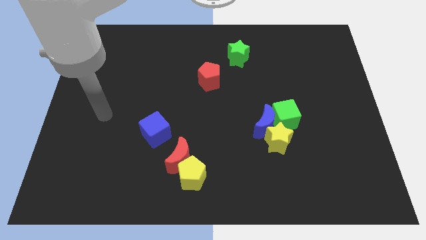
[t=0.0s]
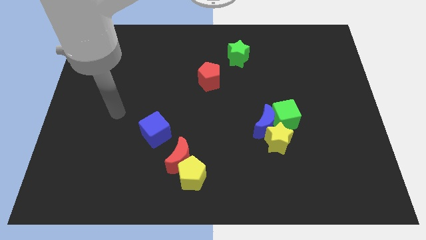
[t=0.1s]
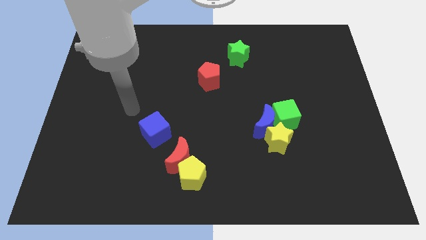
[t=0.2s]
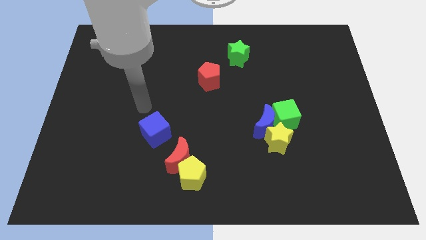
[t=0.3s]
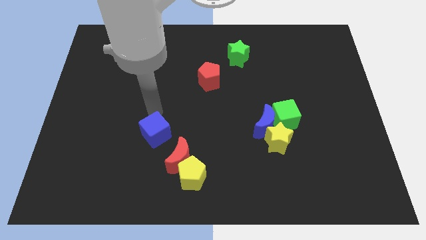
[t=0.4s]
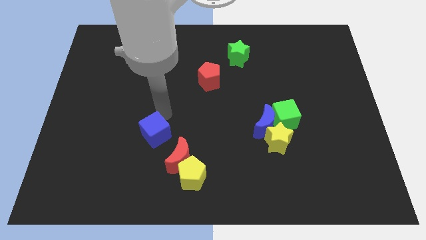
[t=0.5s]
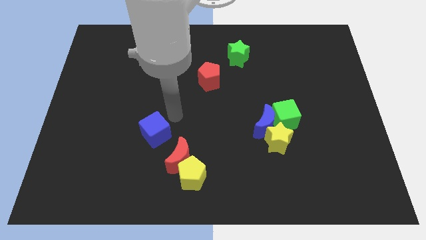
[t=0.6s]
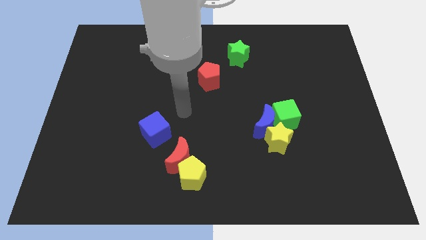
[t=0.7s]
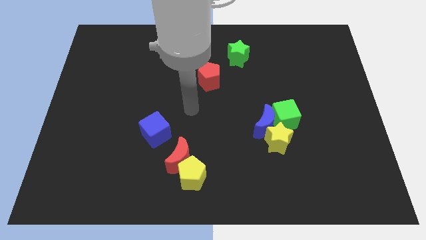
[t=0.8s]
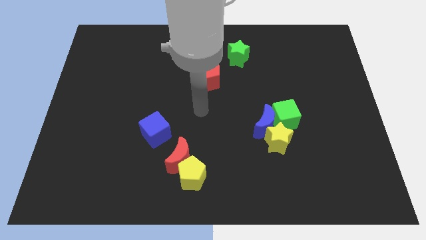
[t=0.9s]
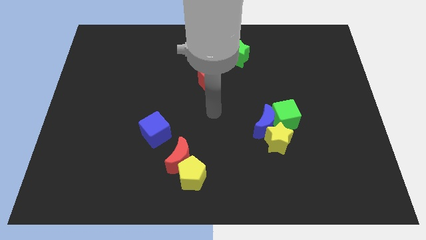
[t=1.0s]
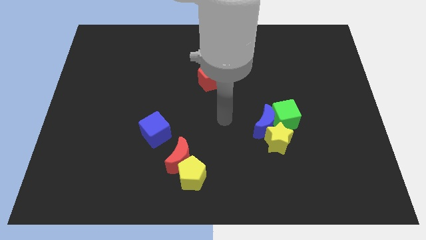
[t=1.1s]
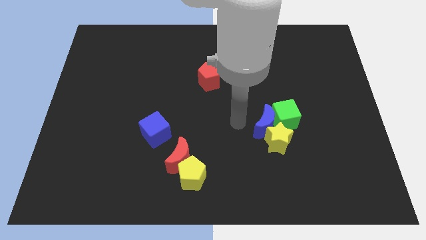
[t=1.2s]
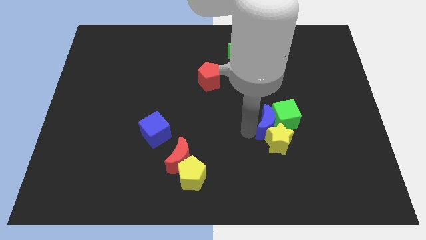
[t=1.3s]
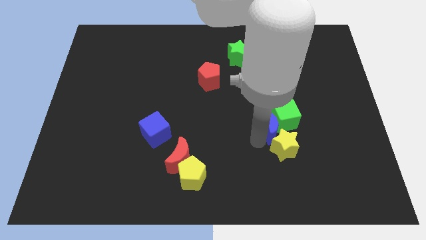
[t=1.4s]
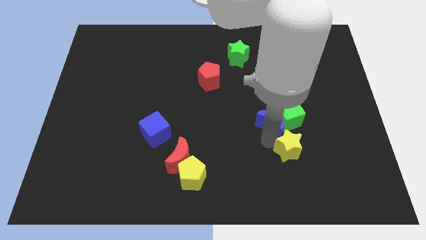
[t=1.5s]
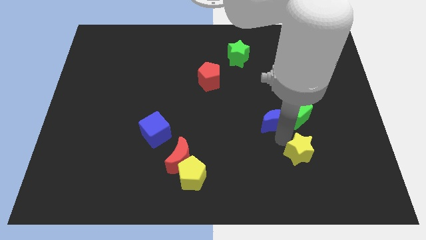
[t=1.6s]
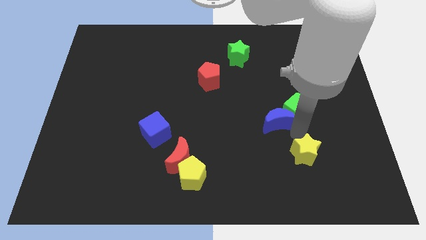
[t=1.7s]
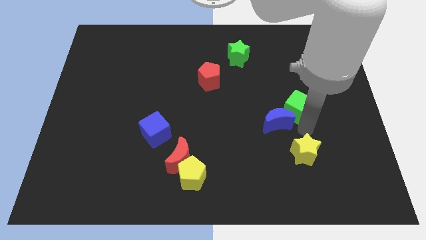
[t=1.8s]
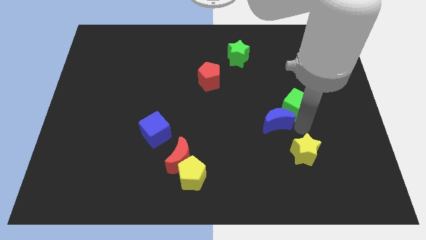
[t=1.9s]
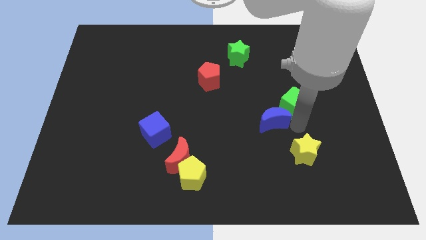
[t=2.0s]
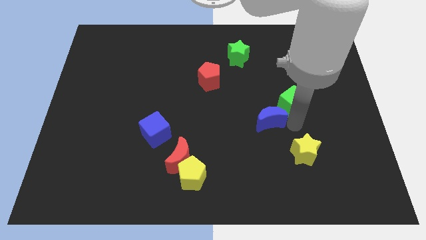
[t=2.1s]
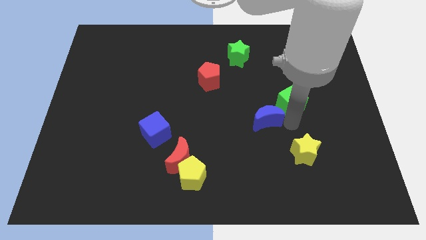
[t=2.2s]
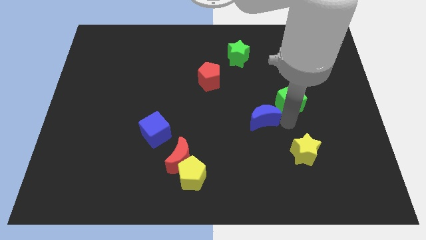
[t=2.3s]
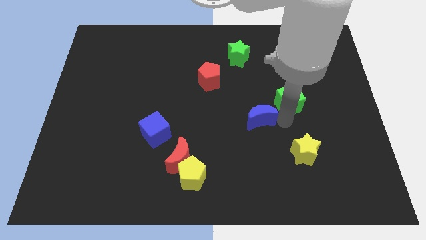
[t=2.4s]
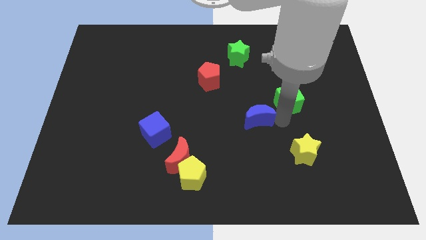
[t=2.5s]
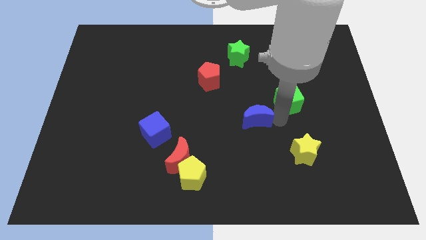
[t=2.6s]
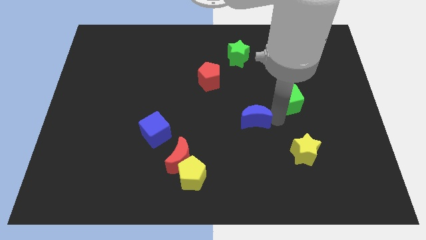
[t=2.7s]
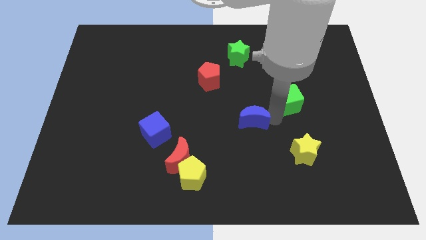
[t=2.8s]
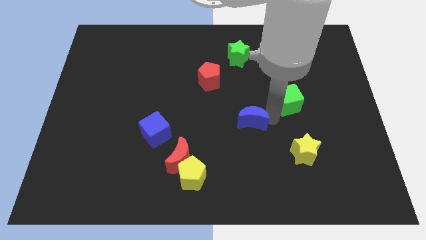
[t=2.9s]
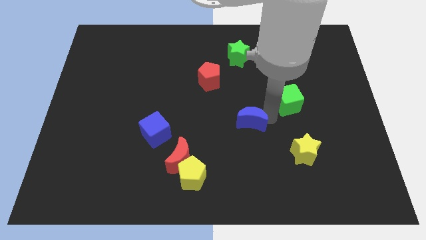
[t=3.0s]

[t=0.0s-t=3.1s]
separate the blue moon from the yellow star and green cube

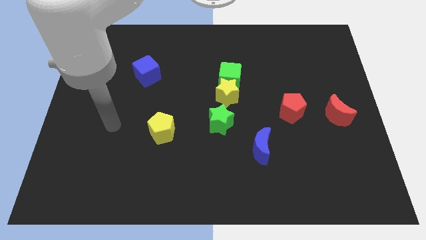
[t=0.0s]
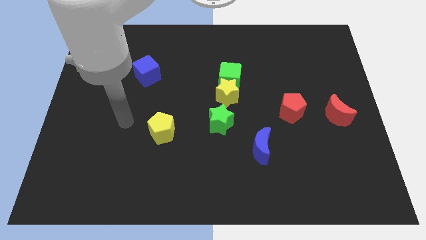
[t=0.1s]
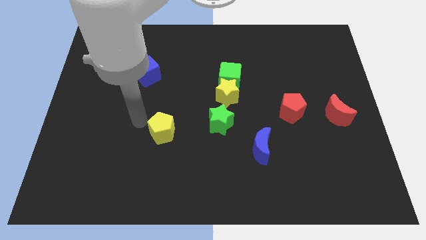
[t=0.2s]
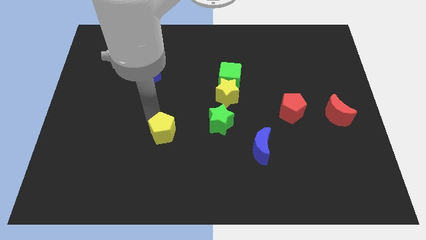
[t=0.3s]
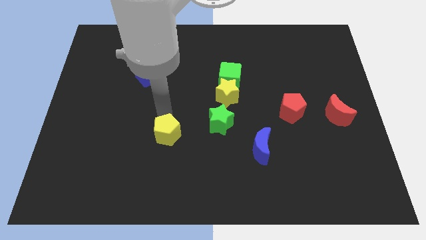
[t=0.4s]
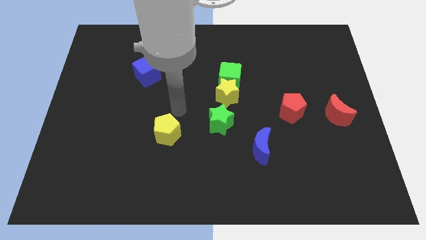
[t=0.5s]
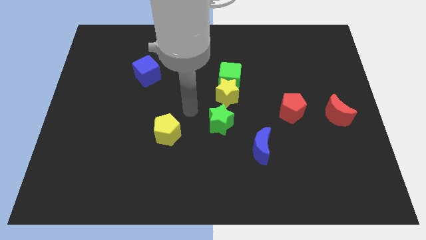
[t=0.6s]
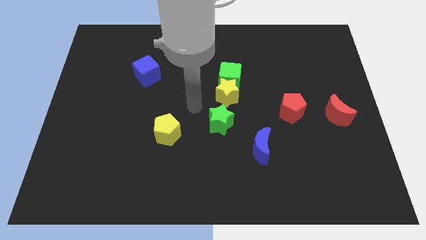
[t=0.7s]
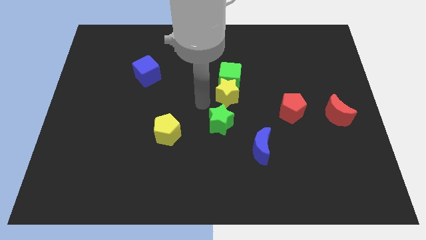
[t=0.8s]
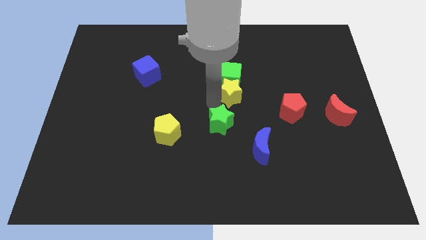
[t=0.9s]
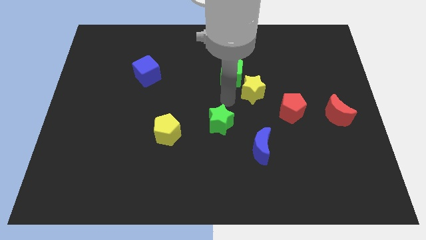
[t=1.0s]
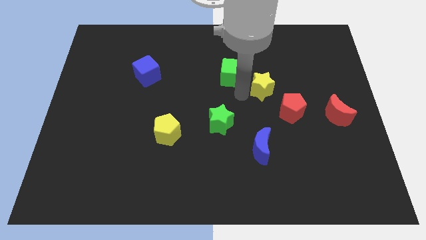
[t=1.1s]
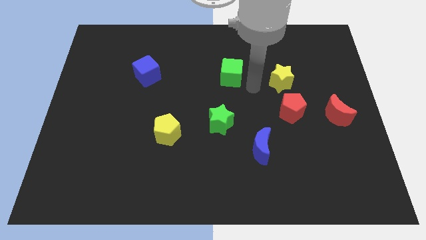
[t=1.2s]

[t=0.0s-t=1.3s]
pull the green cube apart from the yellow star

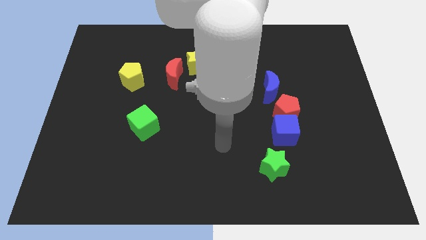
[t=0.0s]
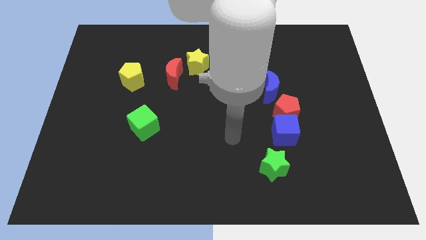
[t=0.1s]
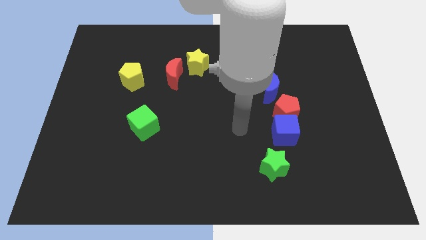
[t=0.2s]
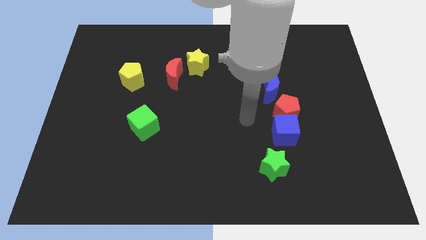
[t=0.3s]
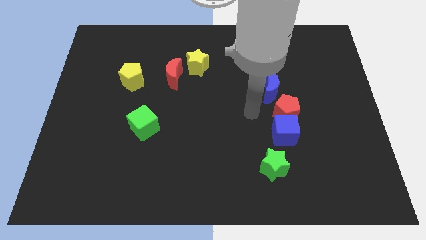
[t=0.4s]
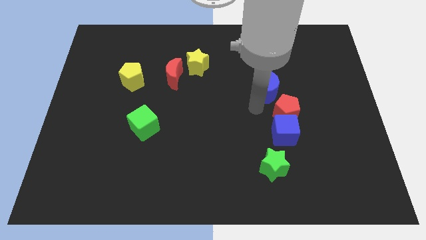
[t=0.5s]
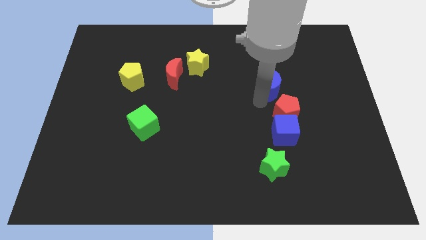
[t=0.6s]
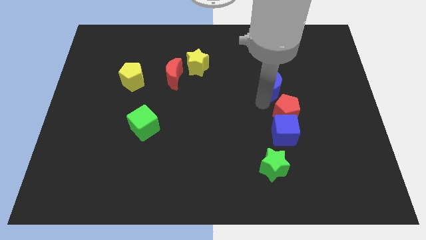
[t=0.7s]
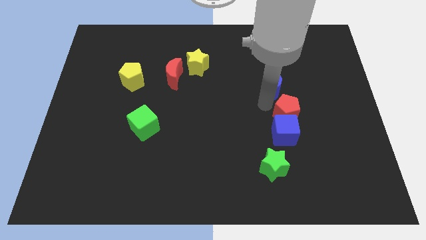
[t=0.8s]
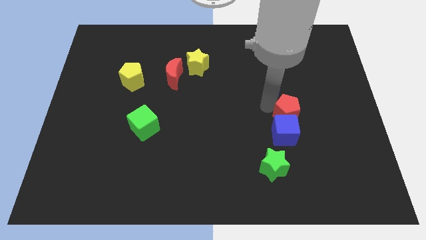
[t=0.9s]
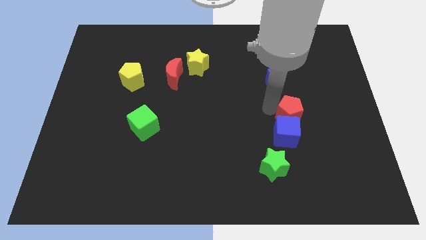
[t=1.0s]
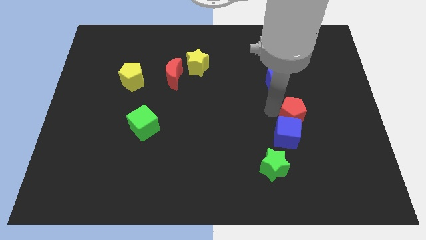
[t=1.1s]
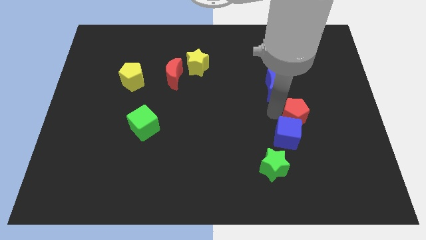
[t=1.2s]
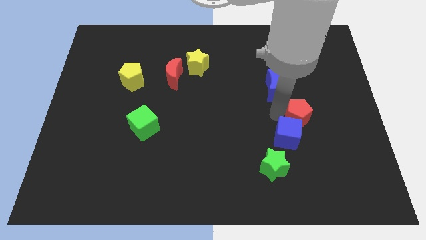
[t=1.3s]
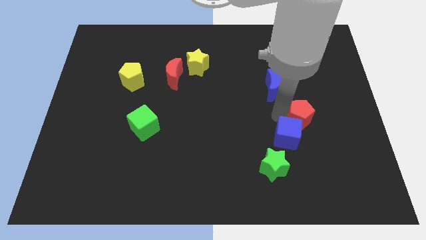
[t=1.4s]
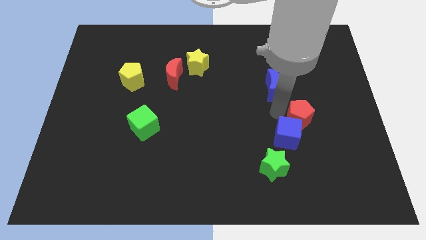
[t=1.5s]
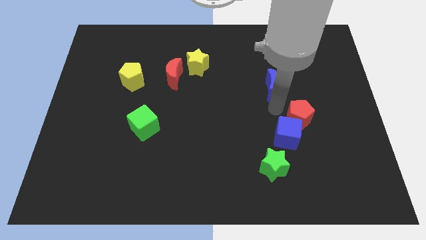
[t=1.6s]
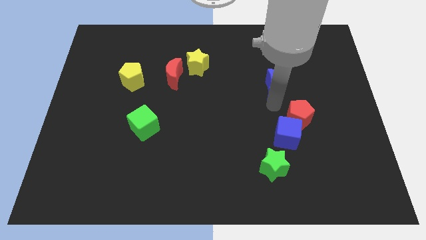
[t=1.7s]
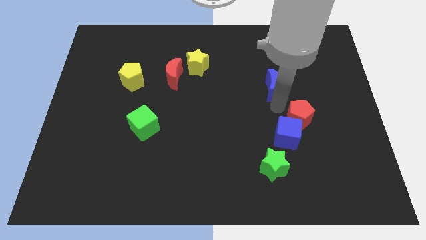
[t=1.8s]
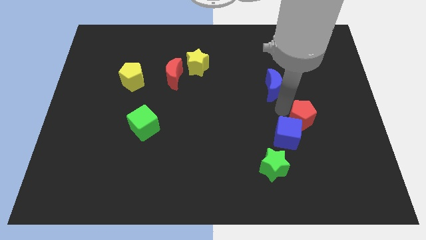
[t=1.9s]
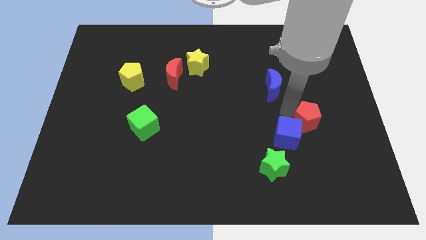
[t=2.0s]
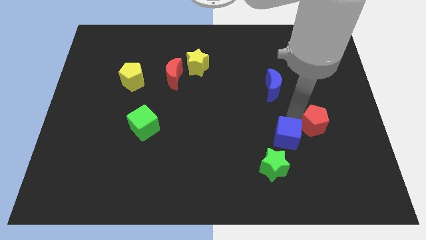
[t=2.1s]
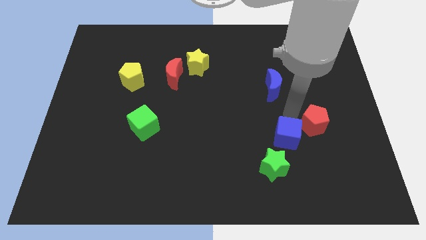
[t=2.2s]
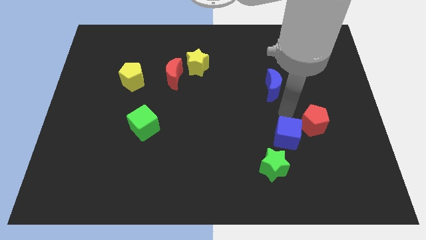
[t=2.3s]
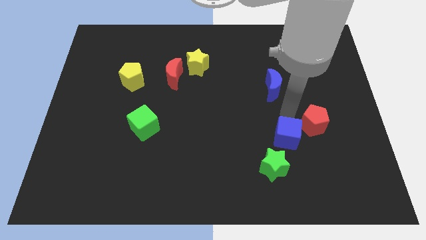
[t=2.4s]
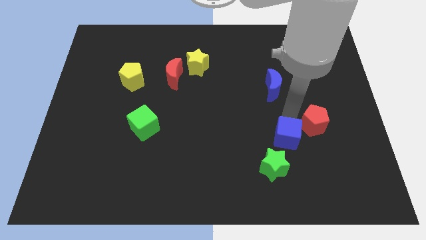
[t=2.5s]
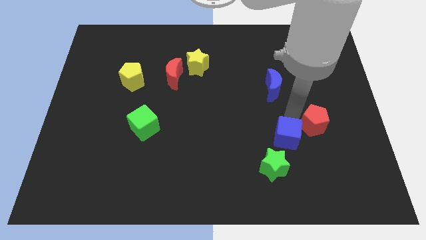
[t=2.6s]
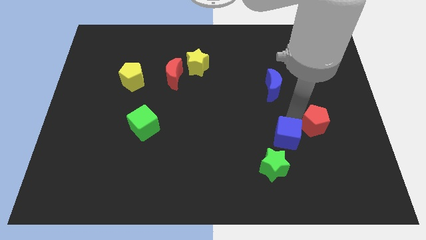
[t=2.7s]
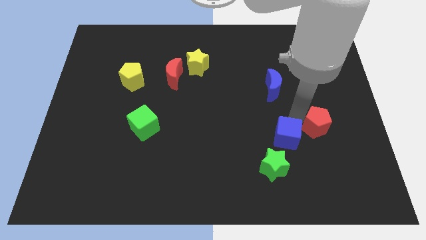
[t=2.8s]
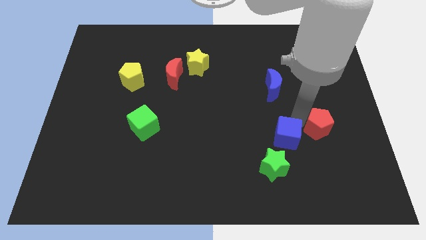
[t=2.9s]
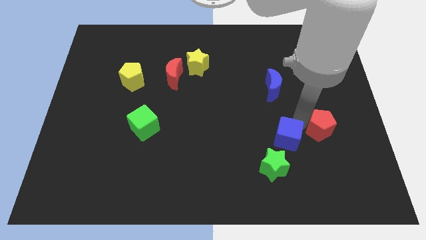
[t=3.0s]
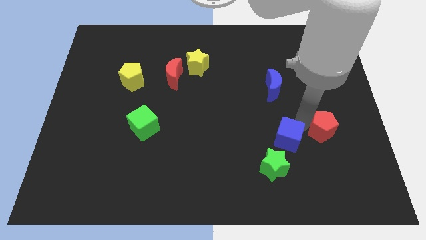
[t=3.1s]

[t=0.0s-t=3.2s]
separate the red pentagon from the blue cube and blue moon

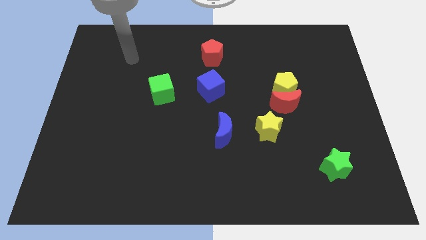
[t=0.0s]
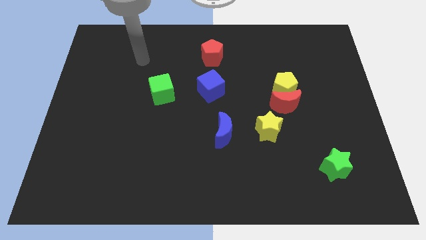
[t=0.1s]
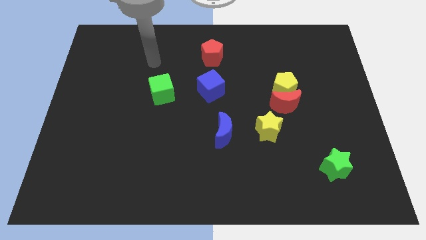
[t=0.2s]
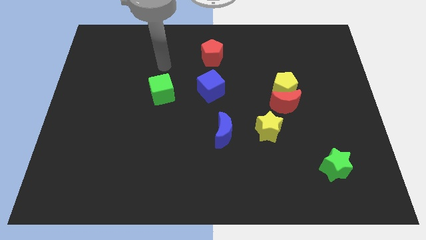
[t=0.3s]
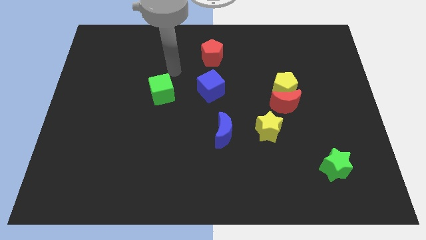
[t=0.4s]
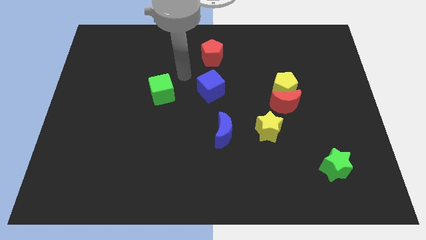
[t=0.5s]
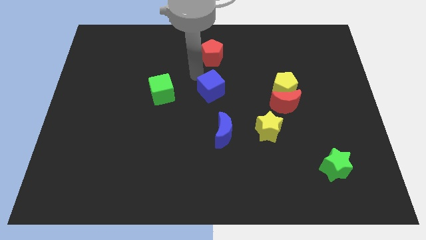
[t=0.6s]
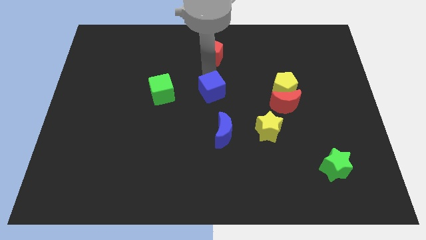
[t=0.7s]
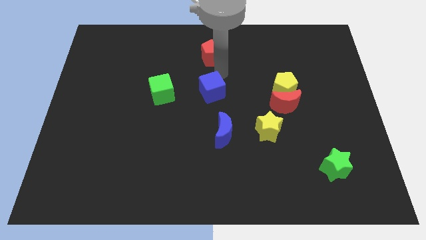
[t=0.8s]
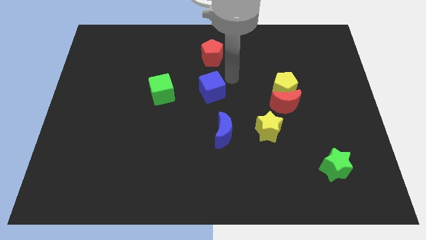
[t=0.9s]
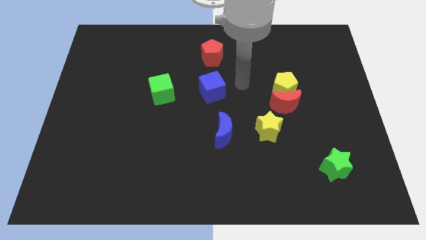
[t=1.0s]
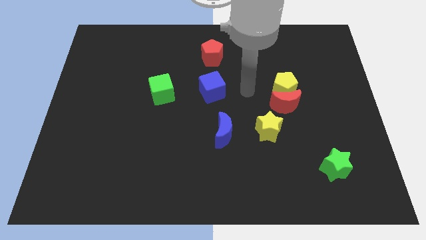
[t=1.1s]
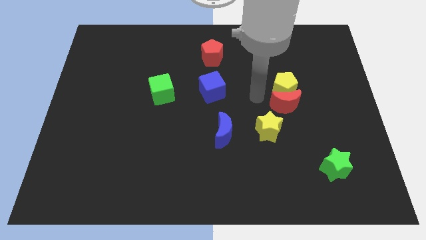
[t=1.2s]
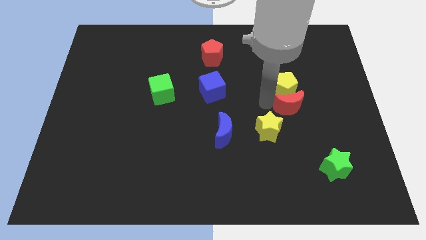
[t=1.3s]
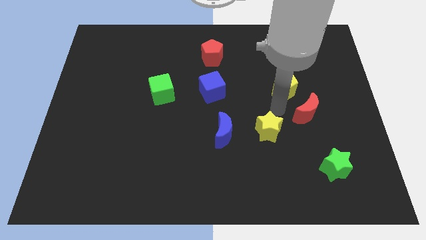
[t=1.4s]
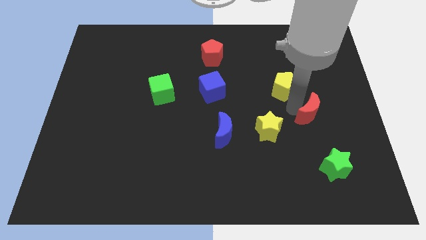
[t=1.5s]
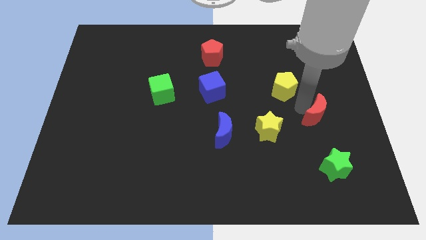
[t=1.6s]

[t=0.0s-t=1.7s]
separate the yellow pentagon from the red moon
